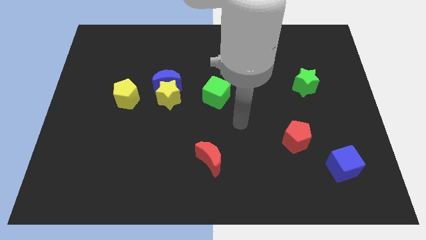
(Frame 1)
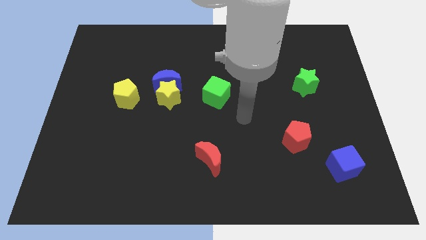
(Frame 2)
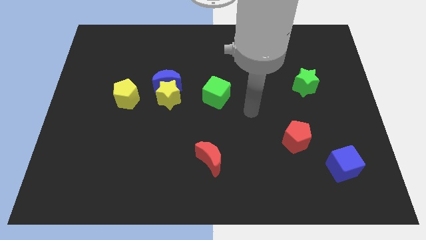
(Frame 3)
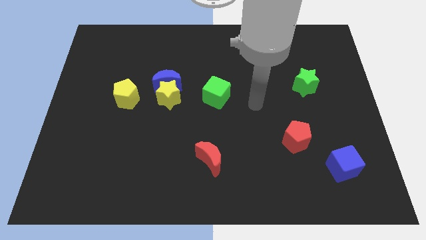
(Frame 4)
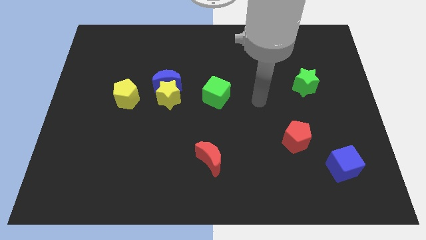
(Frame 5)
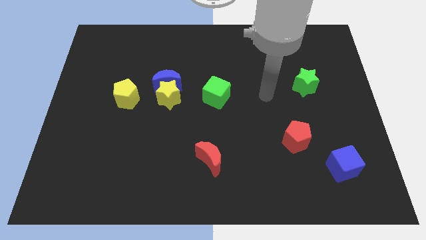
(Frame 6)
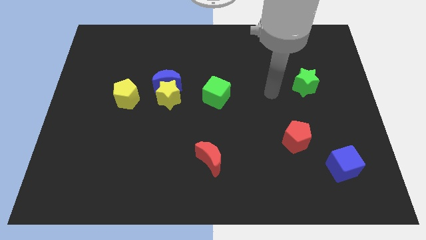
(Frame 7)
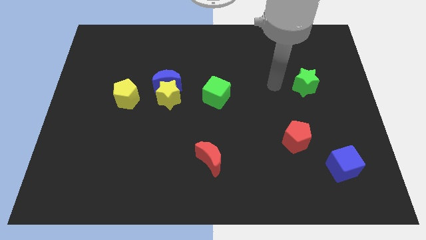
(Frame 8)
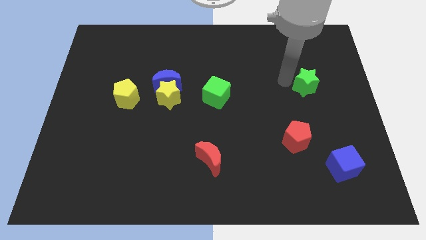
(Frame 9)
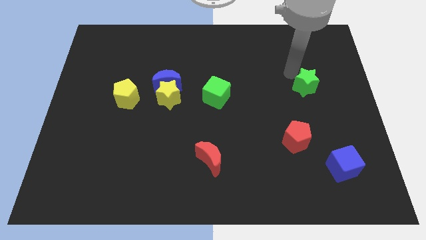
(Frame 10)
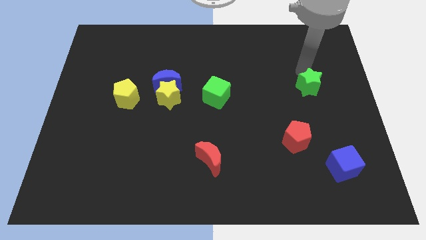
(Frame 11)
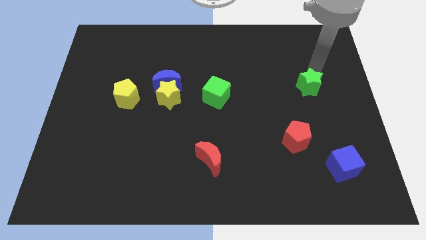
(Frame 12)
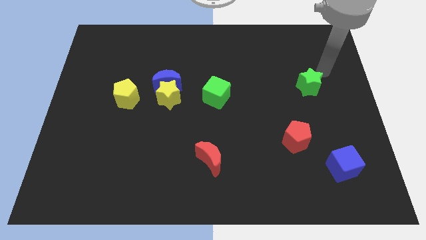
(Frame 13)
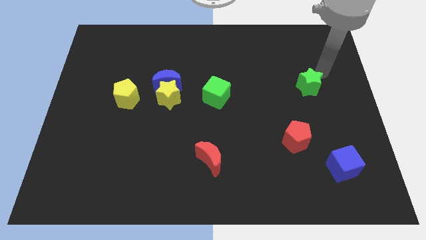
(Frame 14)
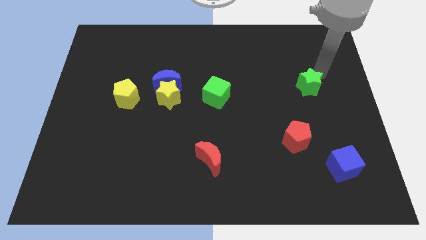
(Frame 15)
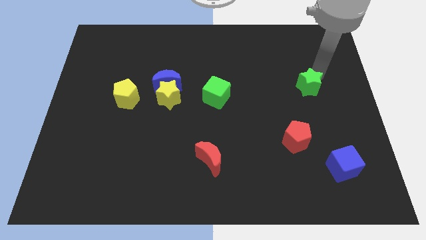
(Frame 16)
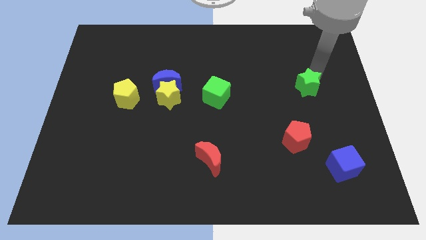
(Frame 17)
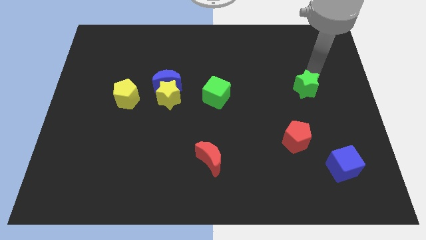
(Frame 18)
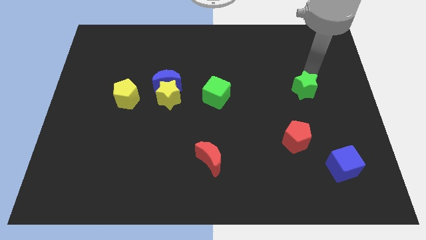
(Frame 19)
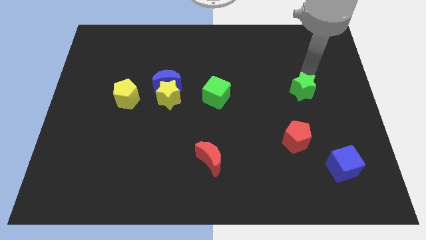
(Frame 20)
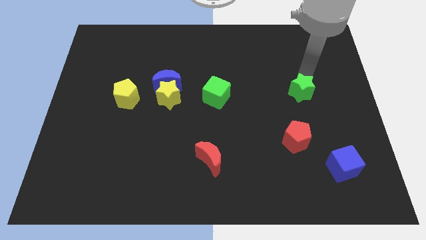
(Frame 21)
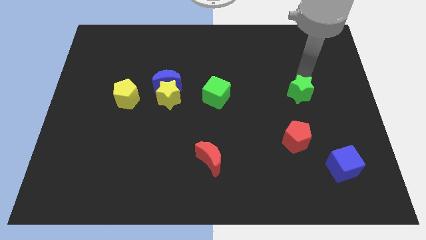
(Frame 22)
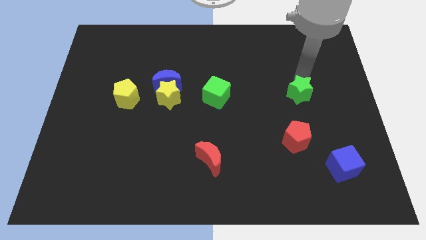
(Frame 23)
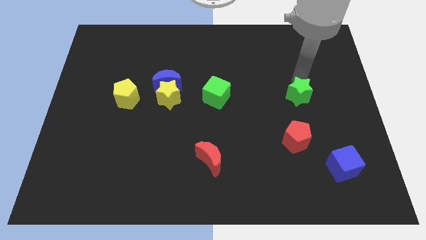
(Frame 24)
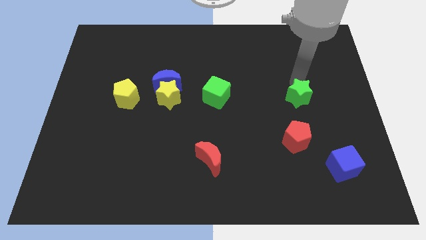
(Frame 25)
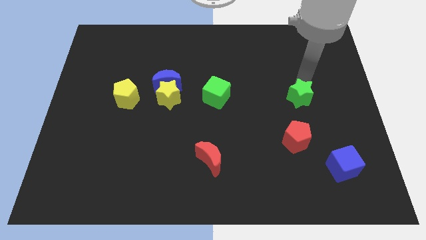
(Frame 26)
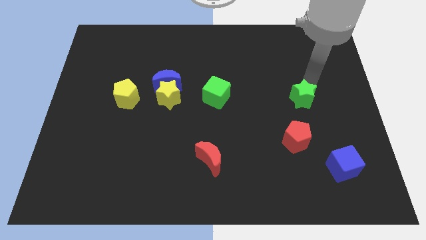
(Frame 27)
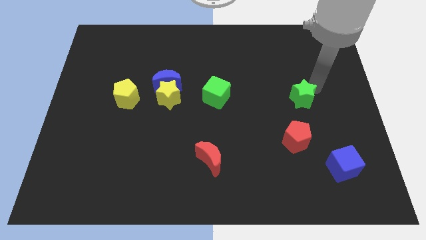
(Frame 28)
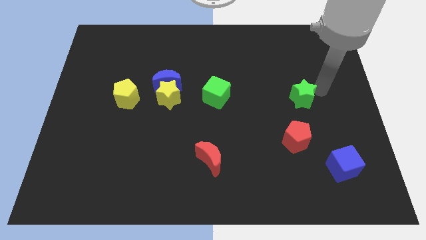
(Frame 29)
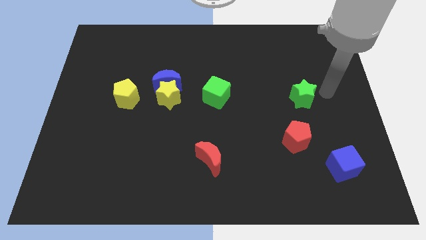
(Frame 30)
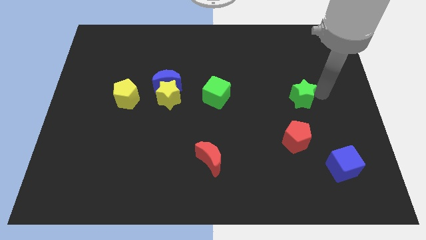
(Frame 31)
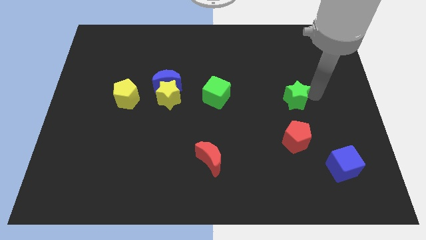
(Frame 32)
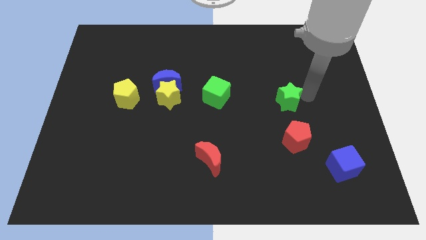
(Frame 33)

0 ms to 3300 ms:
slide the green star somewhat diagonally downwards and left

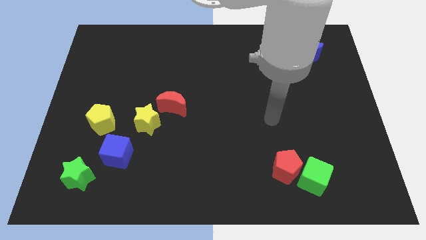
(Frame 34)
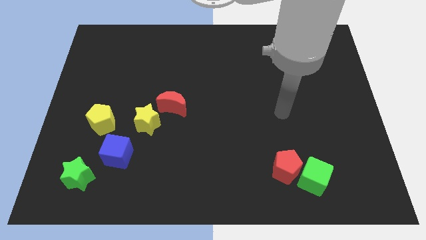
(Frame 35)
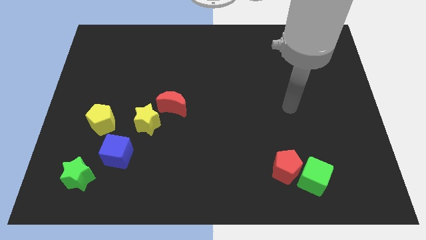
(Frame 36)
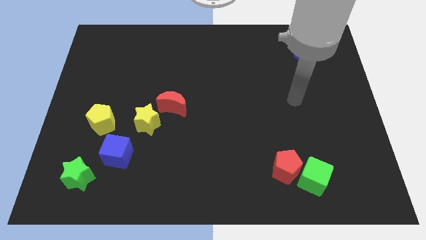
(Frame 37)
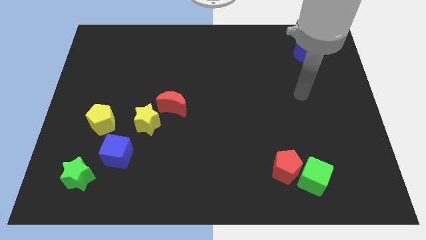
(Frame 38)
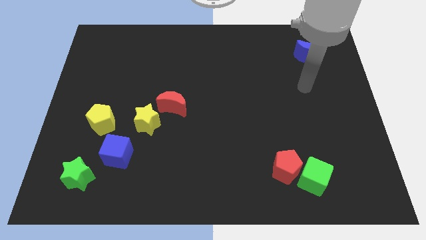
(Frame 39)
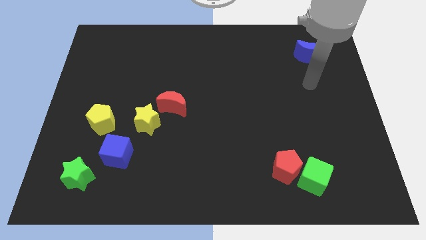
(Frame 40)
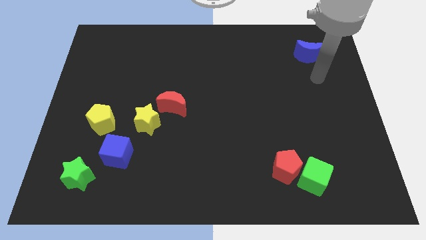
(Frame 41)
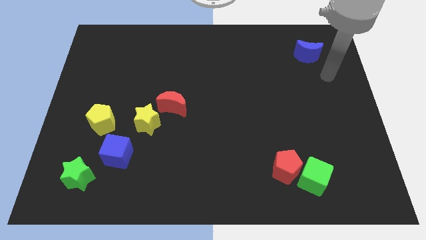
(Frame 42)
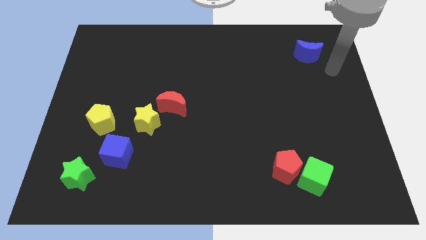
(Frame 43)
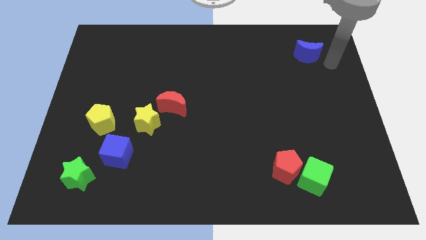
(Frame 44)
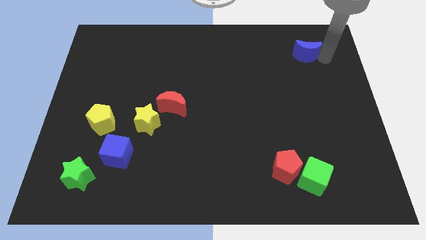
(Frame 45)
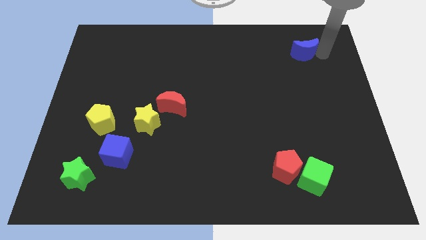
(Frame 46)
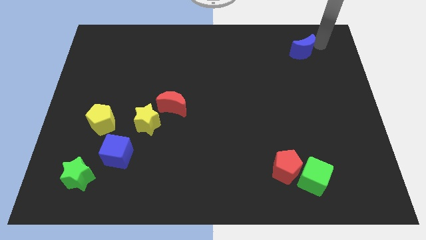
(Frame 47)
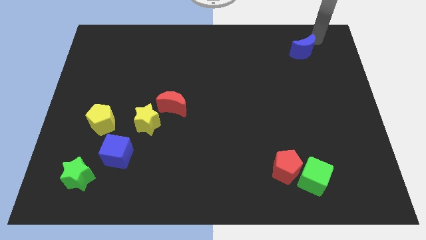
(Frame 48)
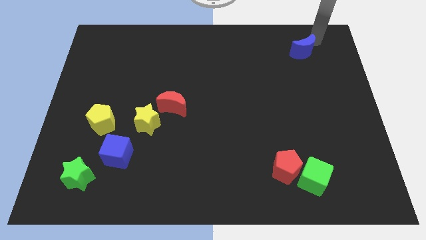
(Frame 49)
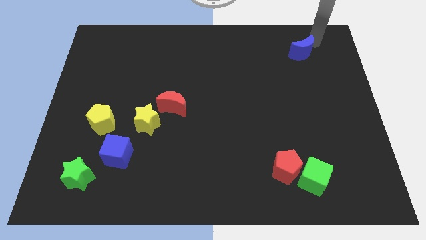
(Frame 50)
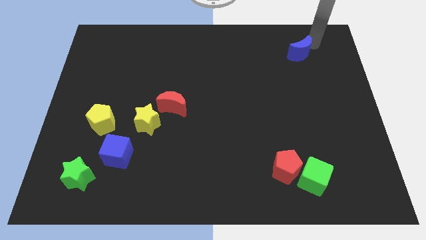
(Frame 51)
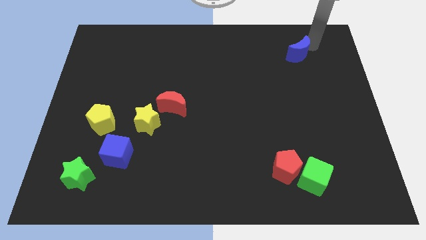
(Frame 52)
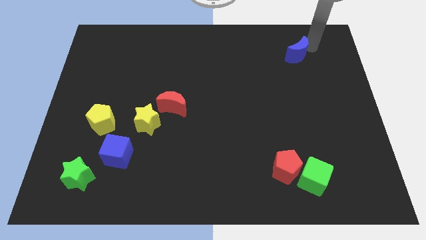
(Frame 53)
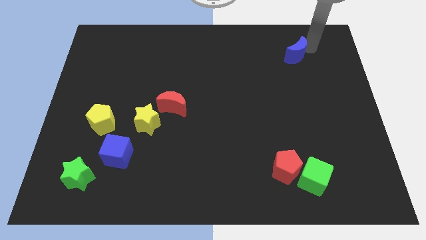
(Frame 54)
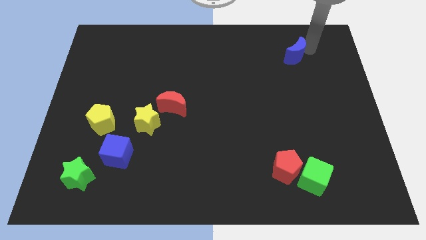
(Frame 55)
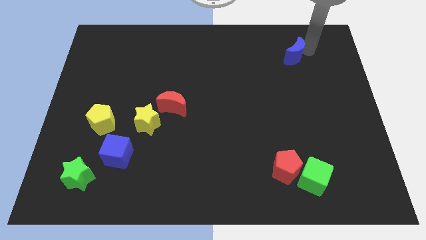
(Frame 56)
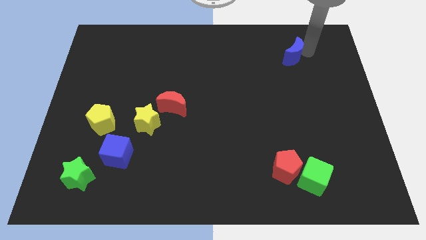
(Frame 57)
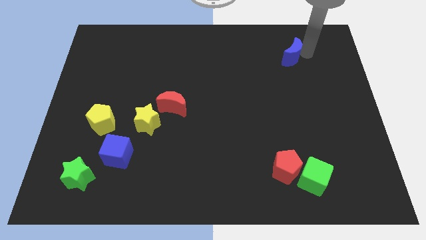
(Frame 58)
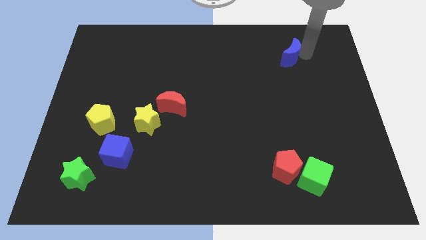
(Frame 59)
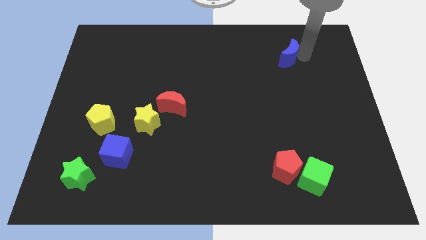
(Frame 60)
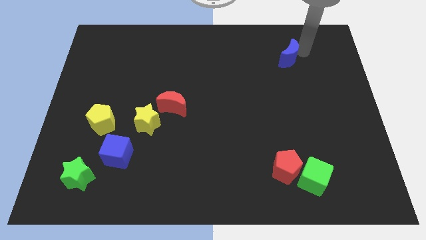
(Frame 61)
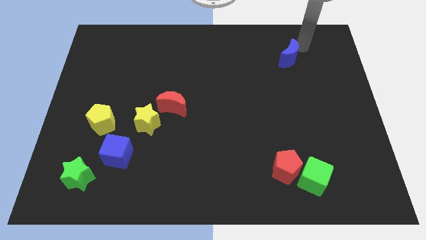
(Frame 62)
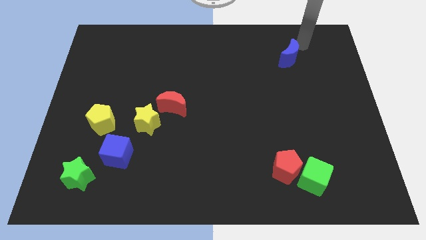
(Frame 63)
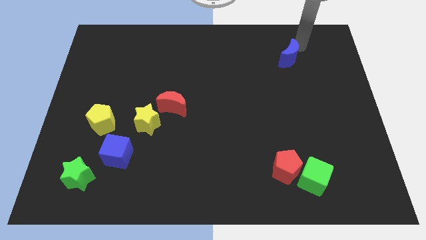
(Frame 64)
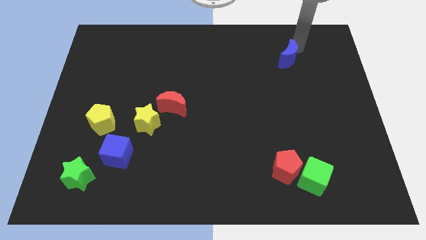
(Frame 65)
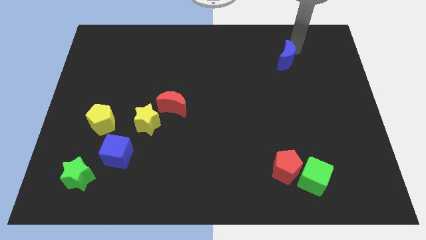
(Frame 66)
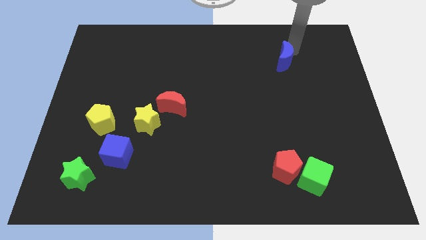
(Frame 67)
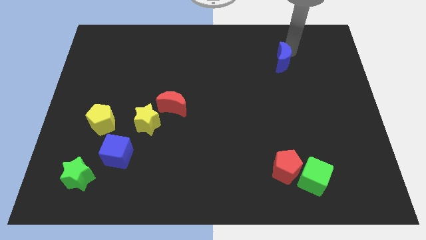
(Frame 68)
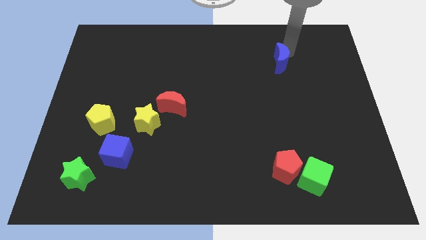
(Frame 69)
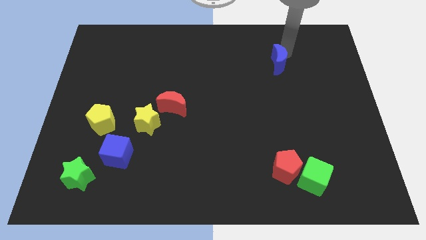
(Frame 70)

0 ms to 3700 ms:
move the blue moon down and left somewhat

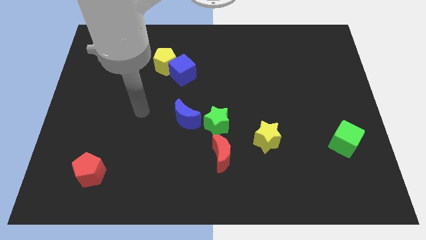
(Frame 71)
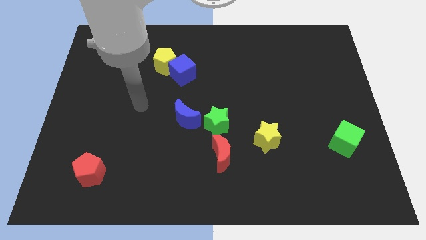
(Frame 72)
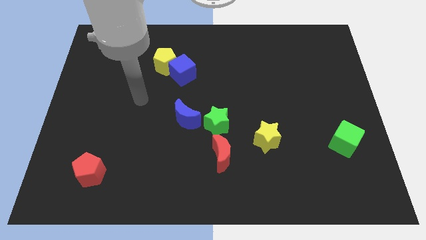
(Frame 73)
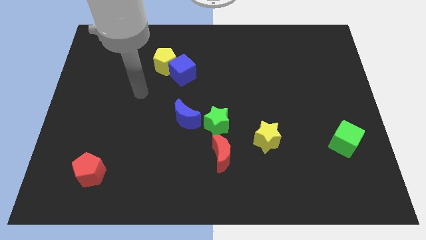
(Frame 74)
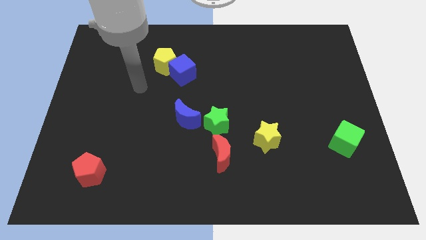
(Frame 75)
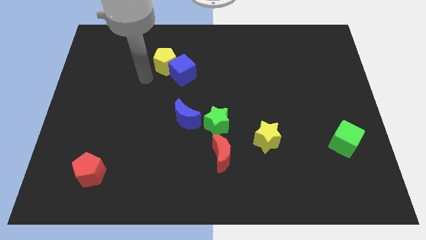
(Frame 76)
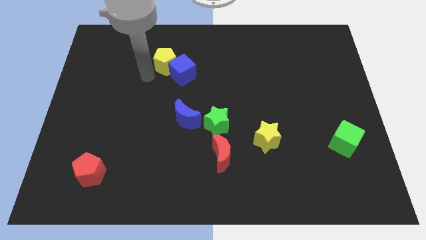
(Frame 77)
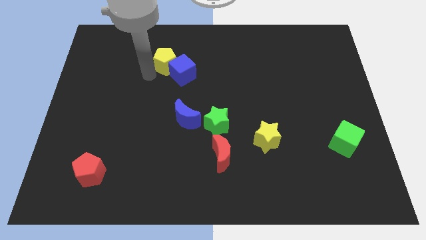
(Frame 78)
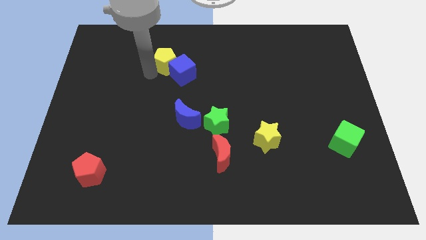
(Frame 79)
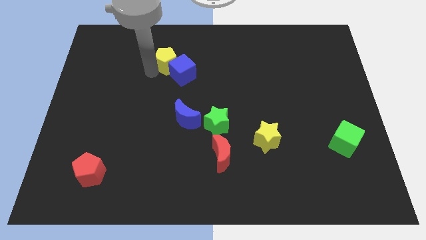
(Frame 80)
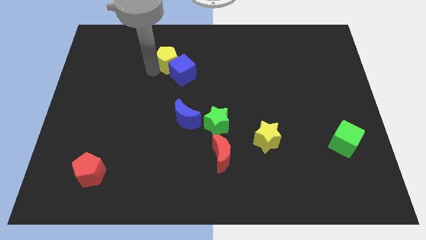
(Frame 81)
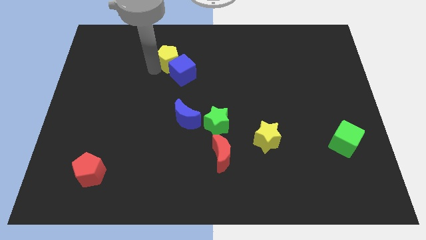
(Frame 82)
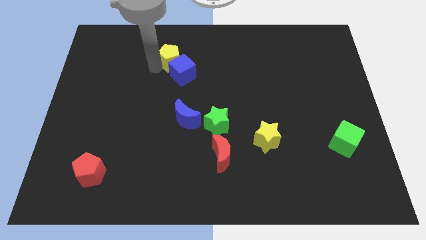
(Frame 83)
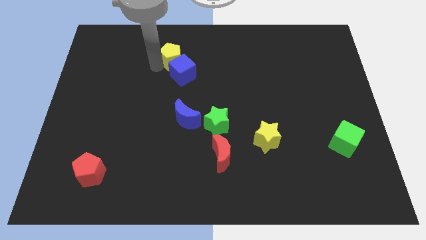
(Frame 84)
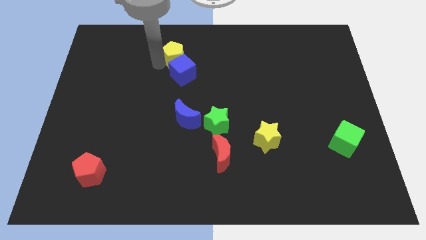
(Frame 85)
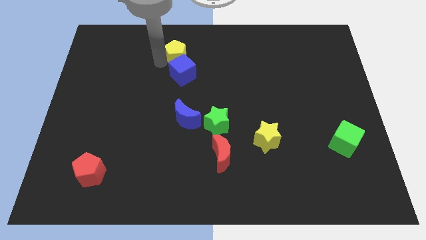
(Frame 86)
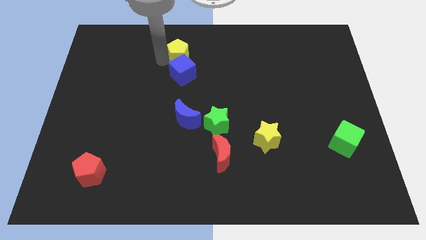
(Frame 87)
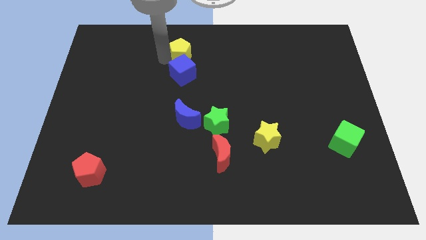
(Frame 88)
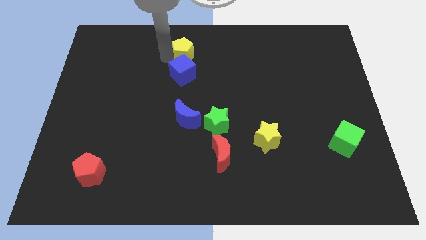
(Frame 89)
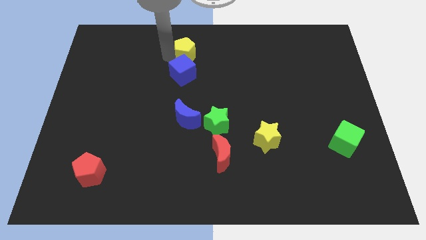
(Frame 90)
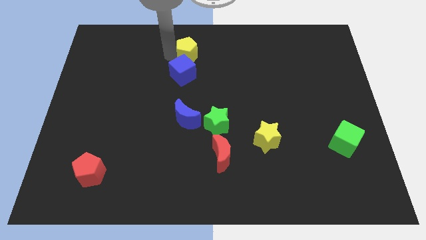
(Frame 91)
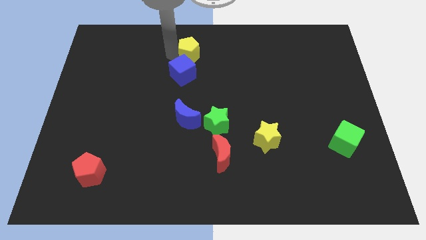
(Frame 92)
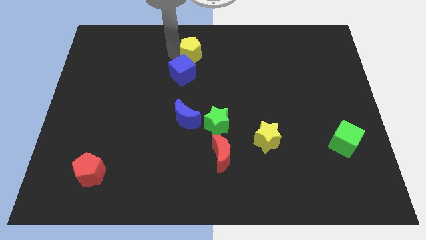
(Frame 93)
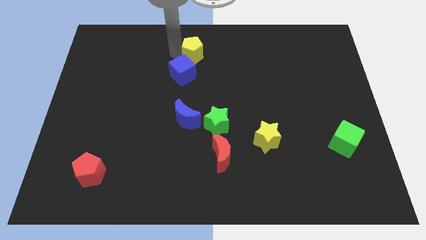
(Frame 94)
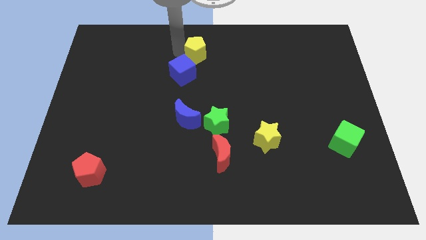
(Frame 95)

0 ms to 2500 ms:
move the yellow pentagon right a bit
